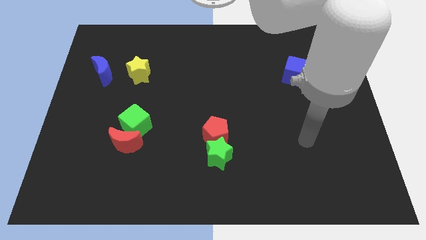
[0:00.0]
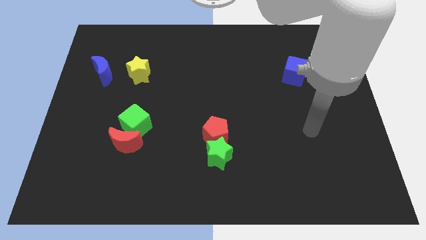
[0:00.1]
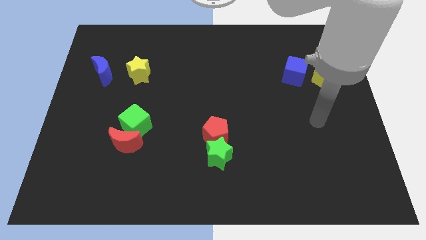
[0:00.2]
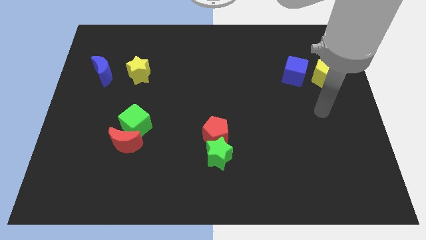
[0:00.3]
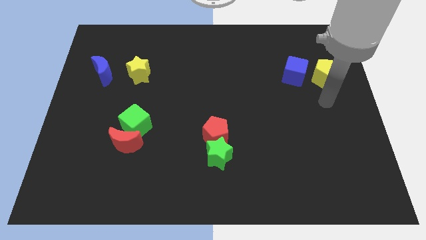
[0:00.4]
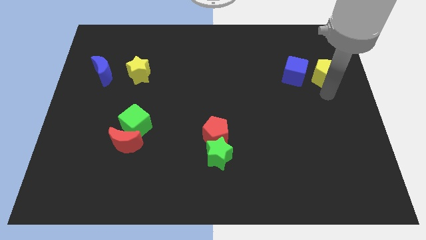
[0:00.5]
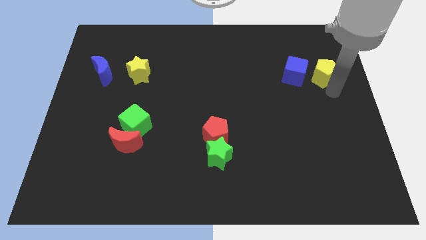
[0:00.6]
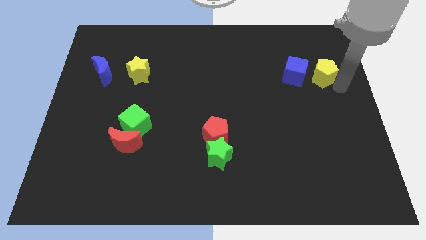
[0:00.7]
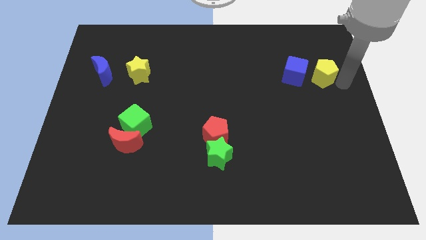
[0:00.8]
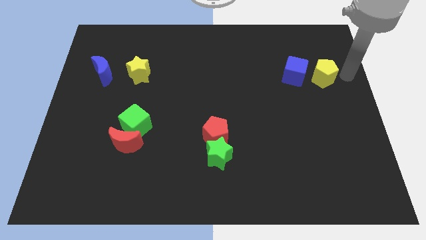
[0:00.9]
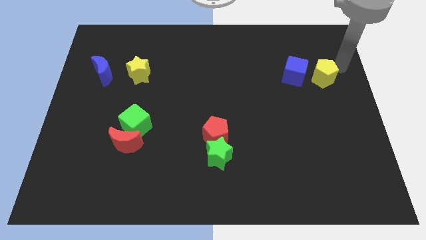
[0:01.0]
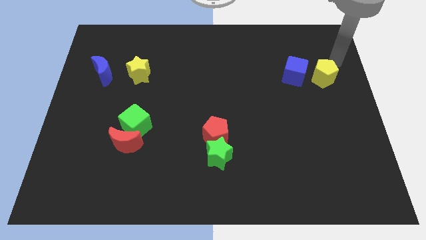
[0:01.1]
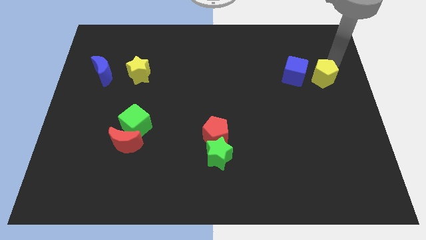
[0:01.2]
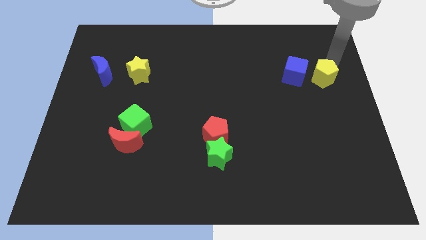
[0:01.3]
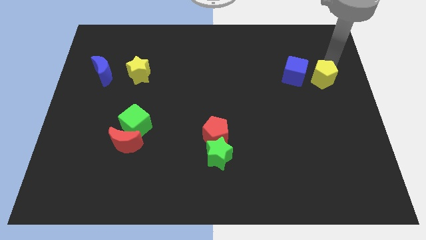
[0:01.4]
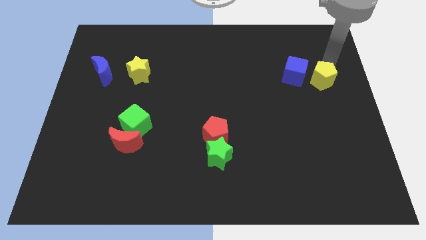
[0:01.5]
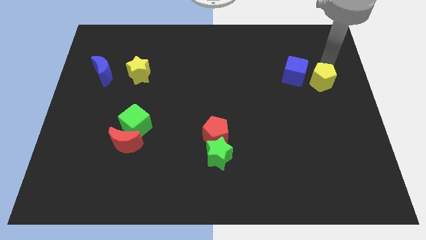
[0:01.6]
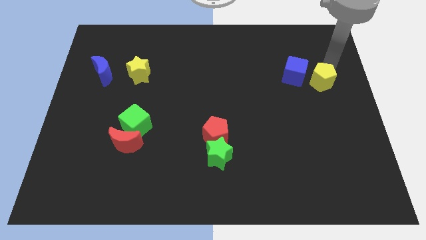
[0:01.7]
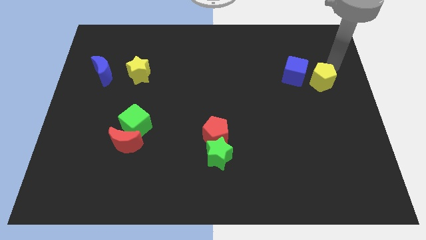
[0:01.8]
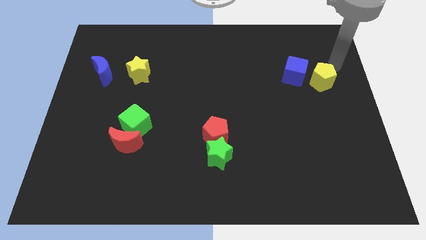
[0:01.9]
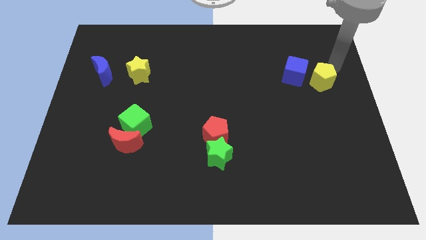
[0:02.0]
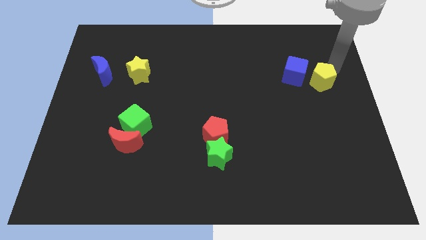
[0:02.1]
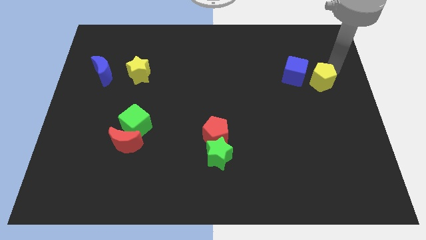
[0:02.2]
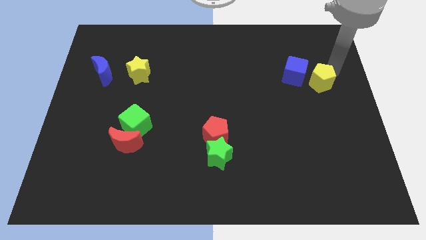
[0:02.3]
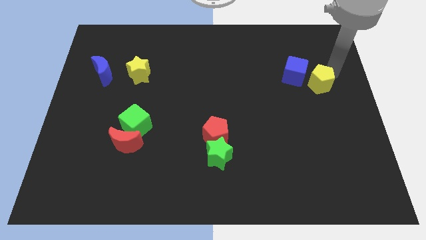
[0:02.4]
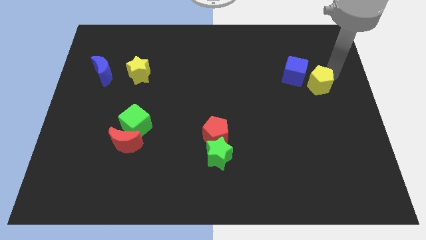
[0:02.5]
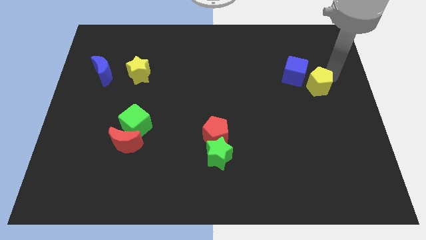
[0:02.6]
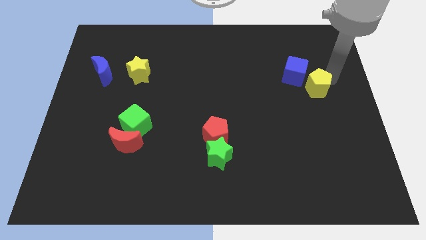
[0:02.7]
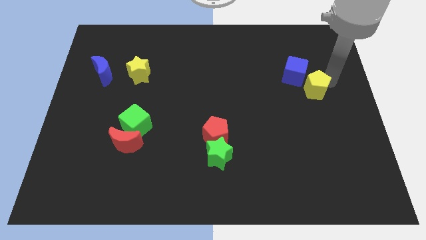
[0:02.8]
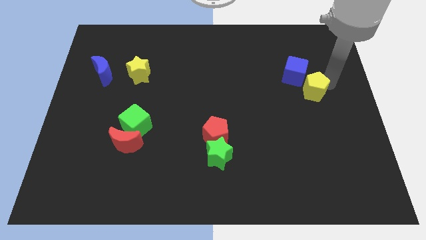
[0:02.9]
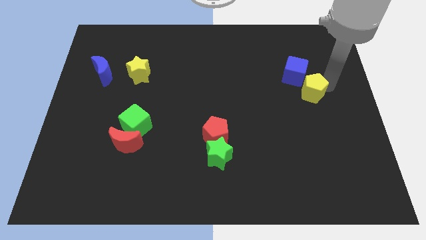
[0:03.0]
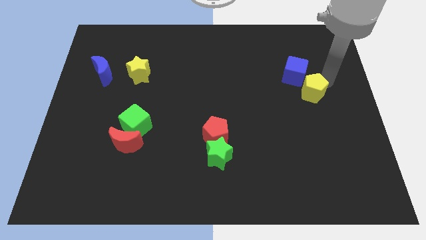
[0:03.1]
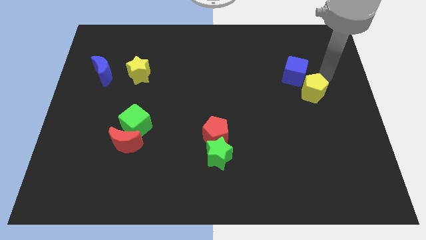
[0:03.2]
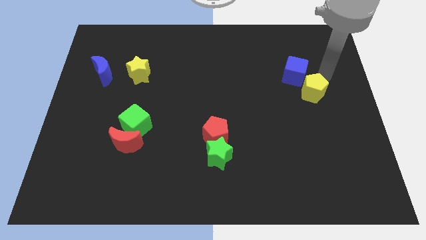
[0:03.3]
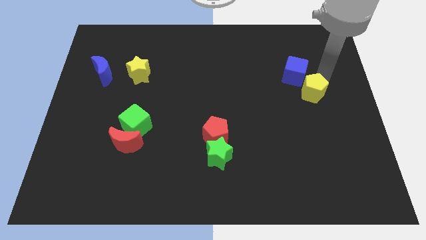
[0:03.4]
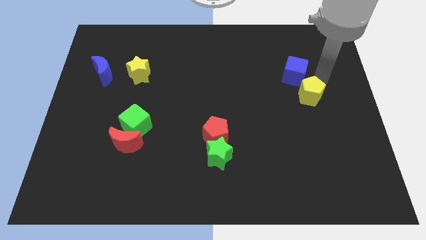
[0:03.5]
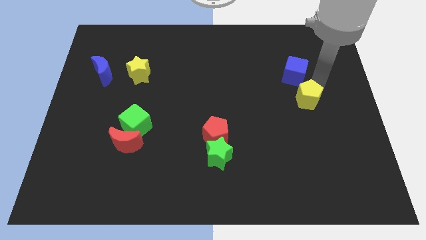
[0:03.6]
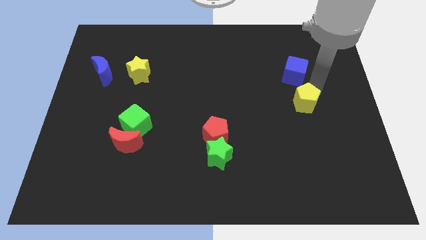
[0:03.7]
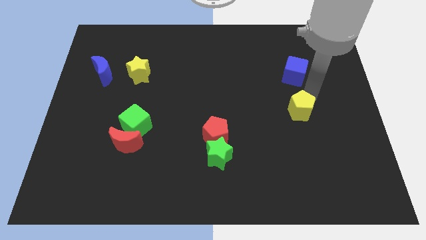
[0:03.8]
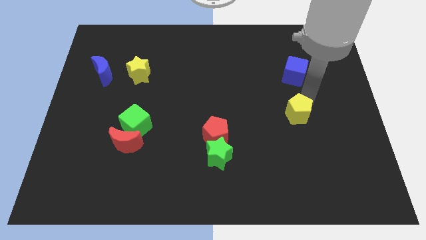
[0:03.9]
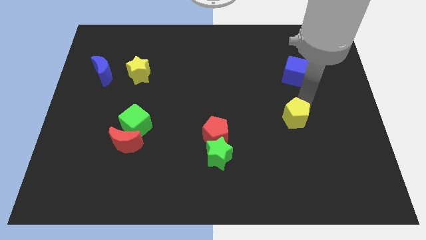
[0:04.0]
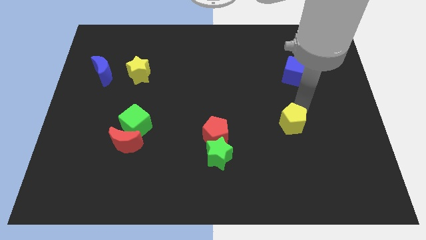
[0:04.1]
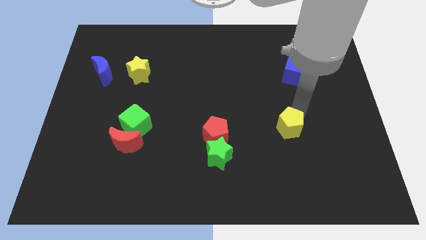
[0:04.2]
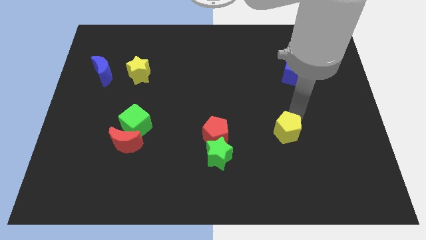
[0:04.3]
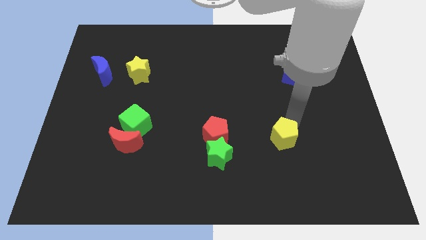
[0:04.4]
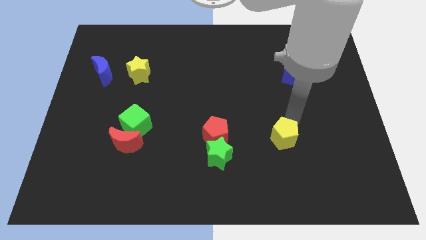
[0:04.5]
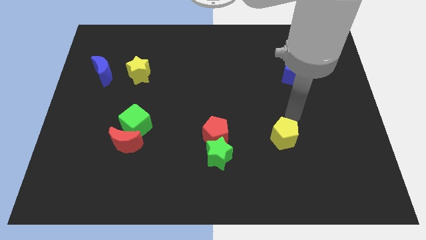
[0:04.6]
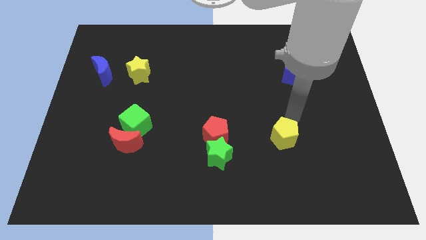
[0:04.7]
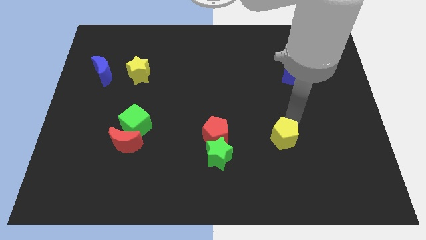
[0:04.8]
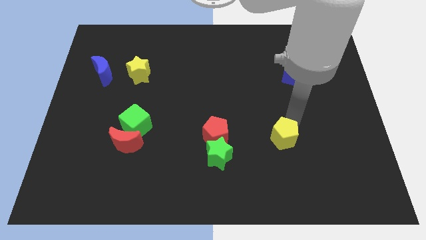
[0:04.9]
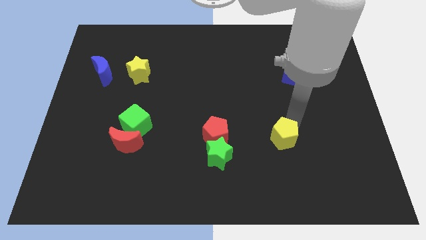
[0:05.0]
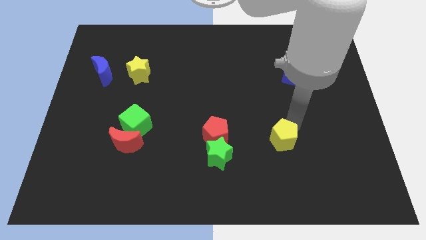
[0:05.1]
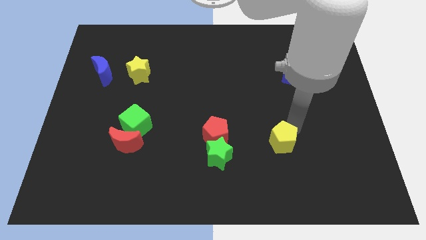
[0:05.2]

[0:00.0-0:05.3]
slide the yellow pentagon to the right side of the green star

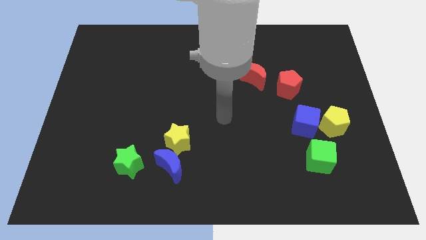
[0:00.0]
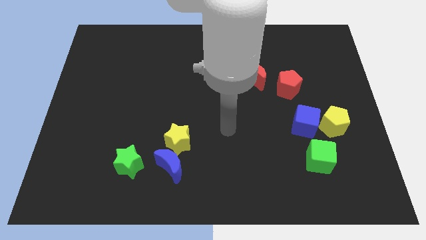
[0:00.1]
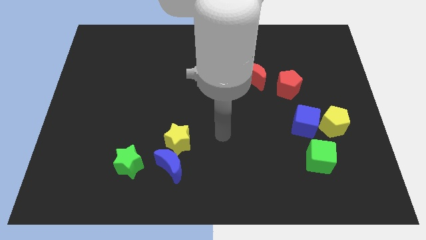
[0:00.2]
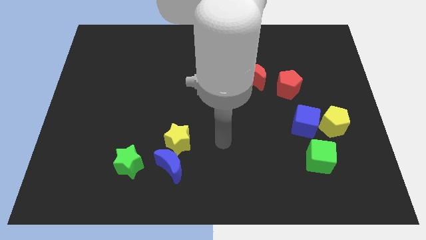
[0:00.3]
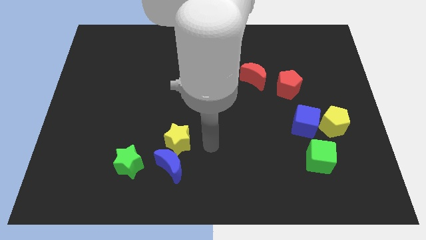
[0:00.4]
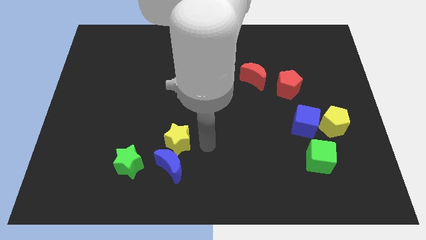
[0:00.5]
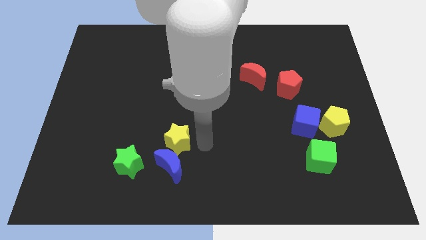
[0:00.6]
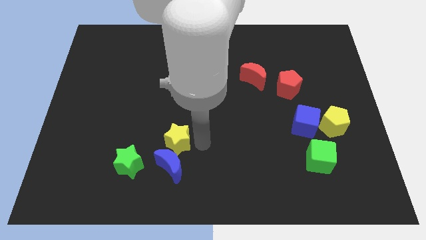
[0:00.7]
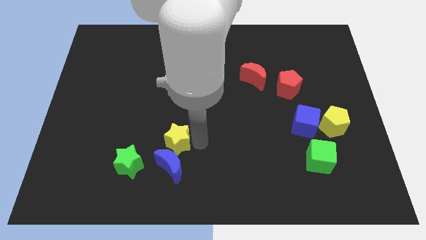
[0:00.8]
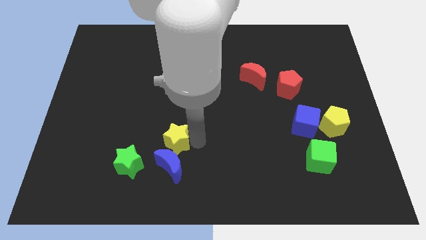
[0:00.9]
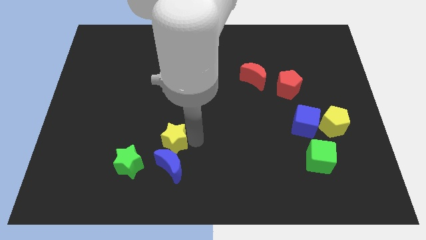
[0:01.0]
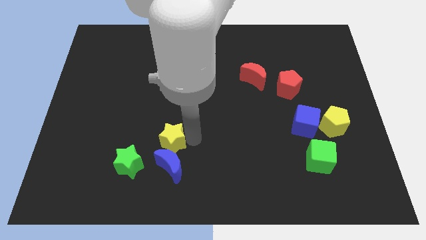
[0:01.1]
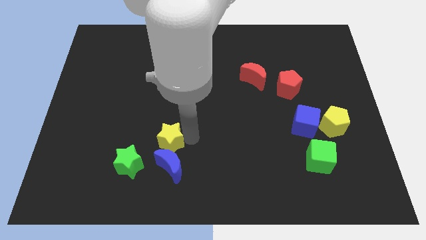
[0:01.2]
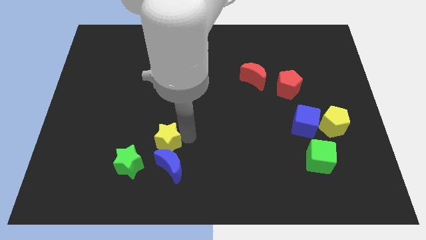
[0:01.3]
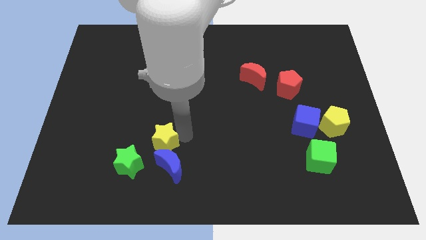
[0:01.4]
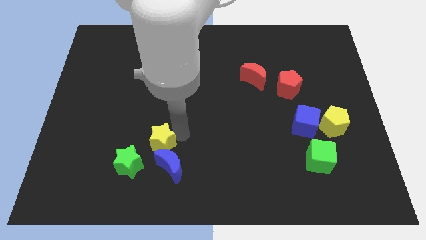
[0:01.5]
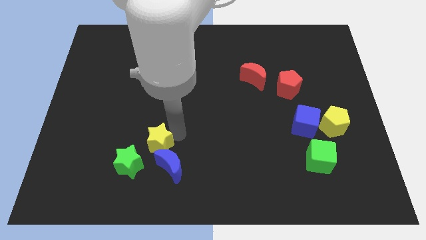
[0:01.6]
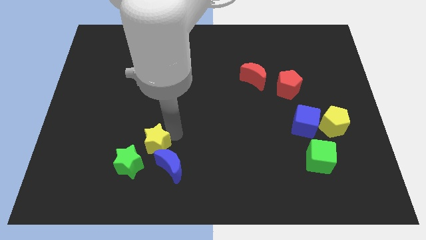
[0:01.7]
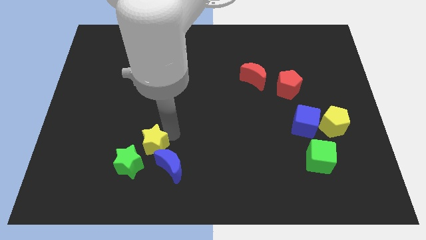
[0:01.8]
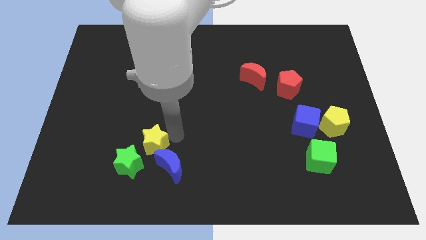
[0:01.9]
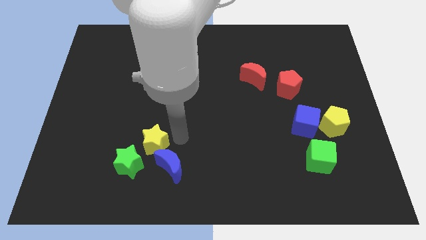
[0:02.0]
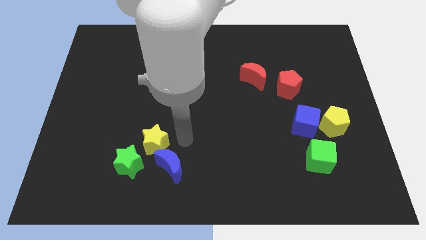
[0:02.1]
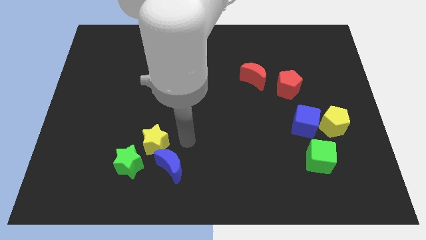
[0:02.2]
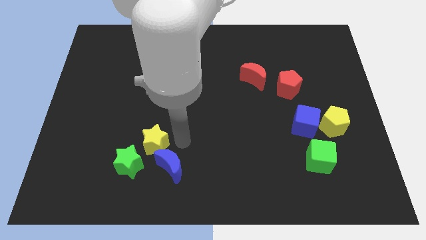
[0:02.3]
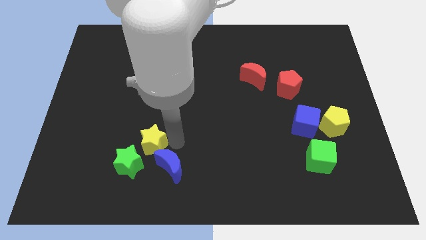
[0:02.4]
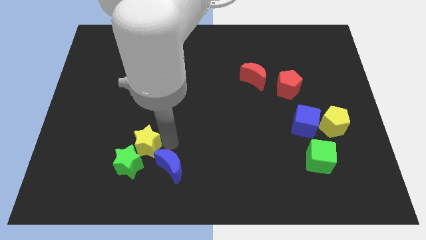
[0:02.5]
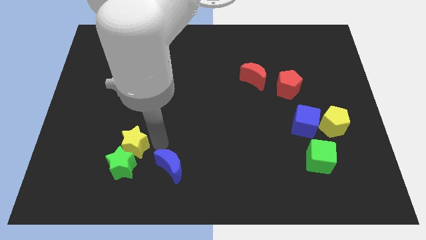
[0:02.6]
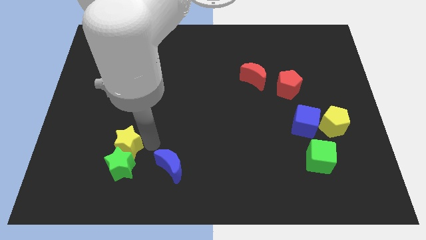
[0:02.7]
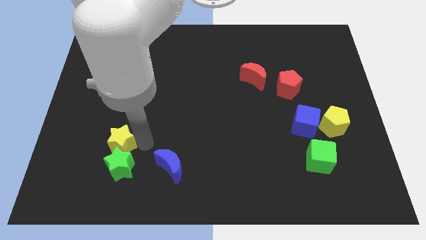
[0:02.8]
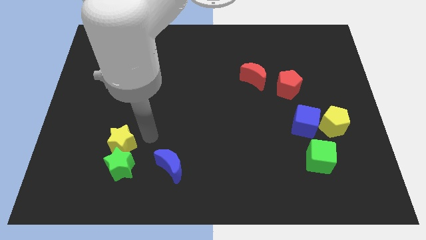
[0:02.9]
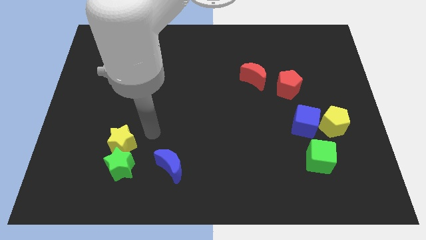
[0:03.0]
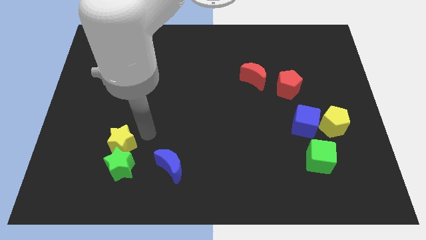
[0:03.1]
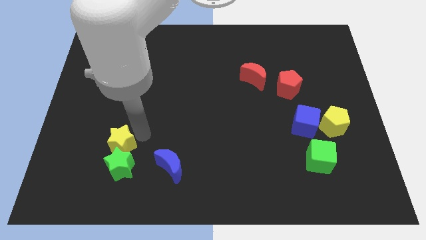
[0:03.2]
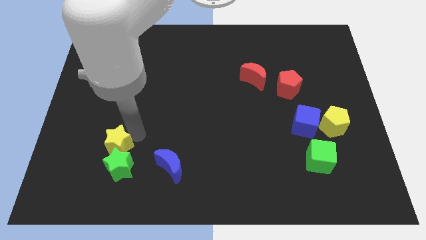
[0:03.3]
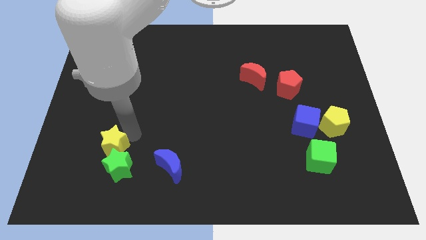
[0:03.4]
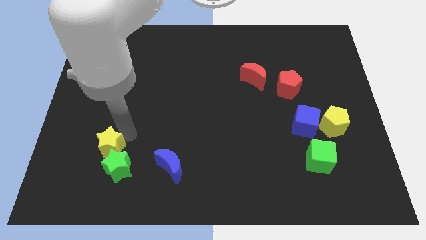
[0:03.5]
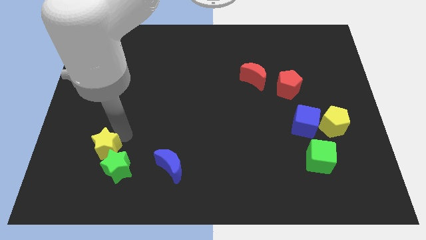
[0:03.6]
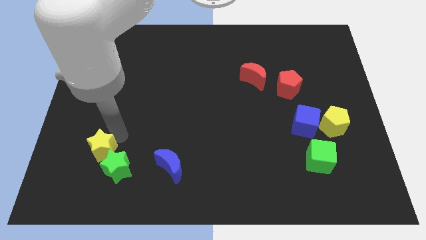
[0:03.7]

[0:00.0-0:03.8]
move the yellow star to the left of the green star
